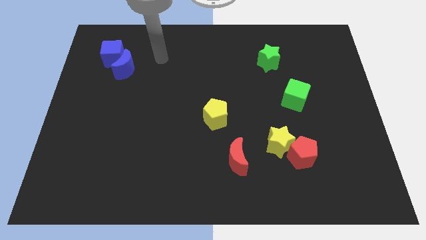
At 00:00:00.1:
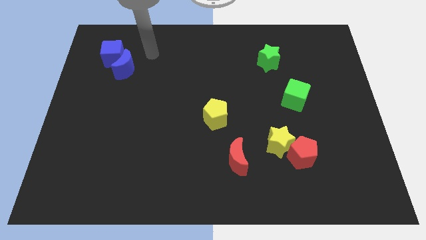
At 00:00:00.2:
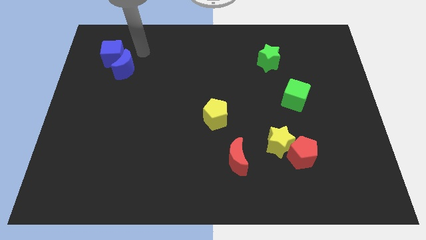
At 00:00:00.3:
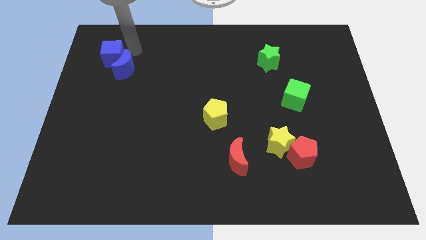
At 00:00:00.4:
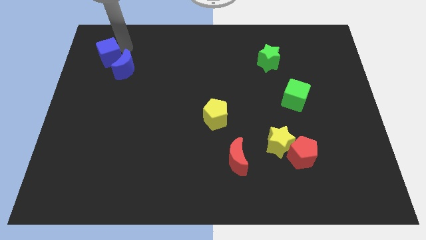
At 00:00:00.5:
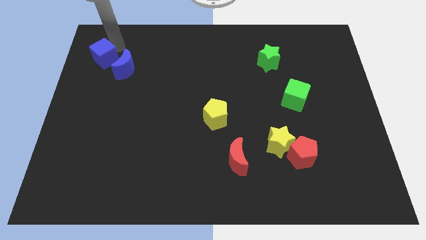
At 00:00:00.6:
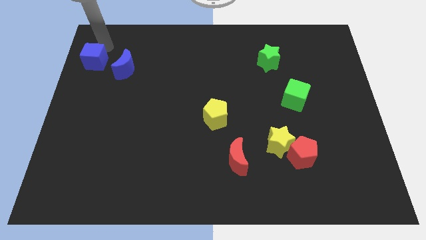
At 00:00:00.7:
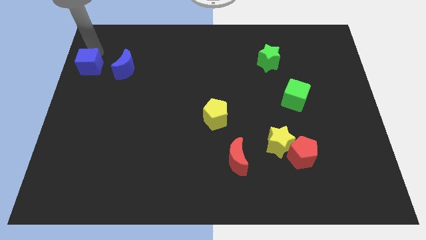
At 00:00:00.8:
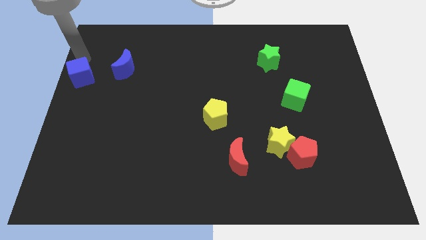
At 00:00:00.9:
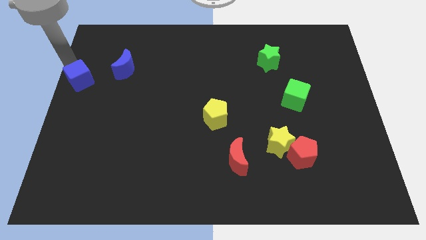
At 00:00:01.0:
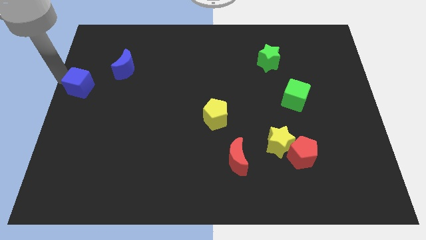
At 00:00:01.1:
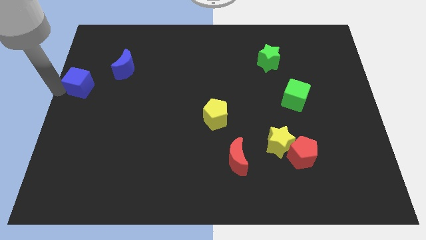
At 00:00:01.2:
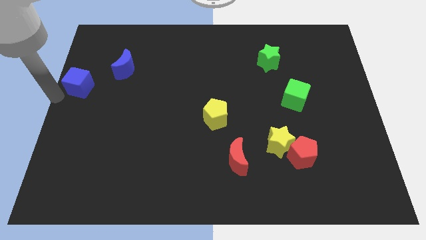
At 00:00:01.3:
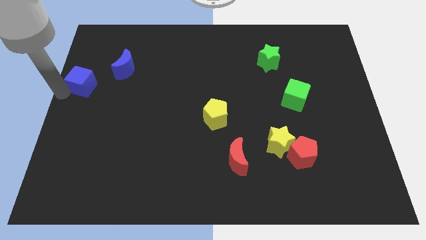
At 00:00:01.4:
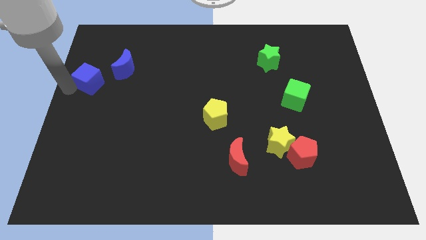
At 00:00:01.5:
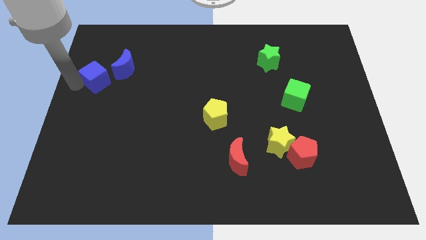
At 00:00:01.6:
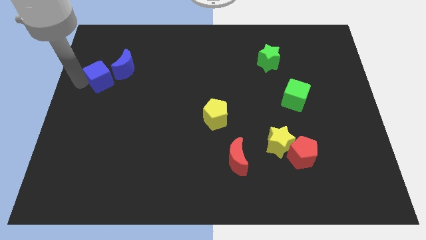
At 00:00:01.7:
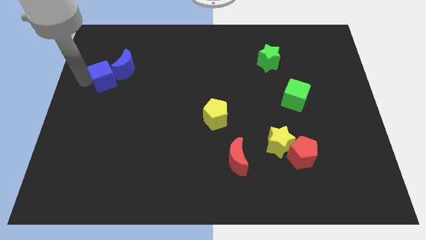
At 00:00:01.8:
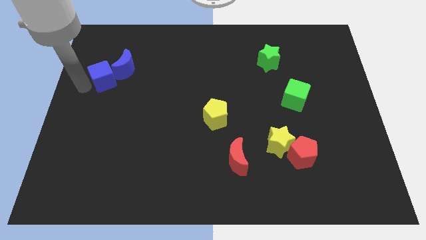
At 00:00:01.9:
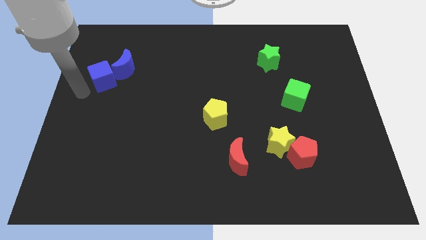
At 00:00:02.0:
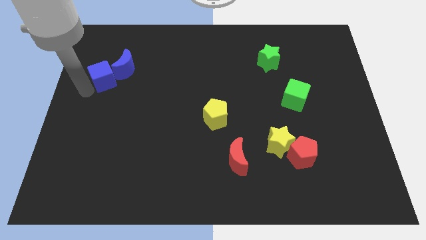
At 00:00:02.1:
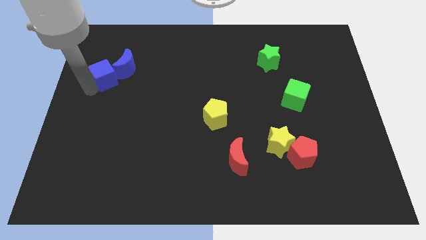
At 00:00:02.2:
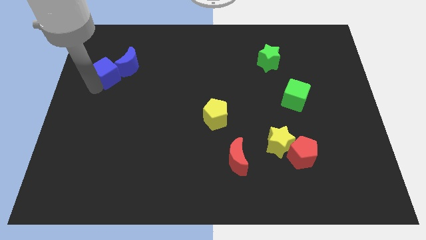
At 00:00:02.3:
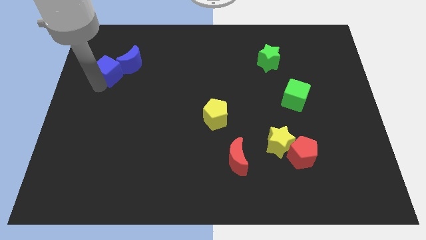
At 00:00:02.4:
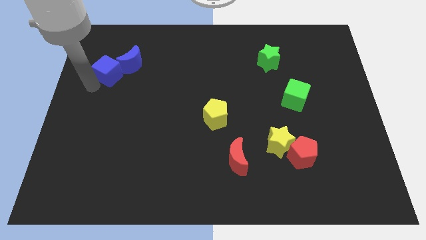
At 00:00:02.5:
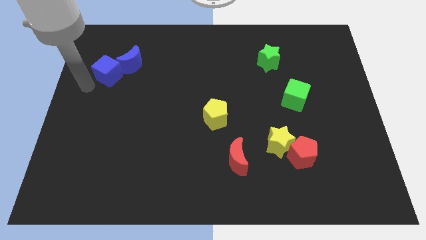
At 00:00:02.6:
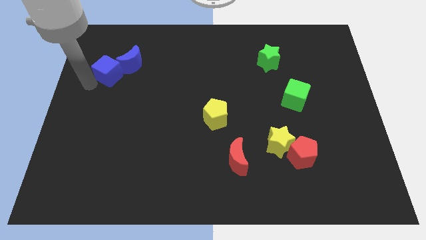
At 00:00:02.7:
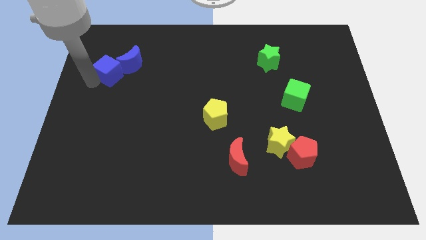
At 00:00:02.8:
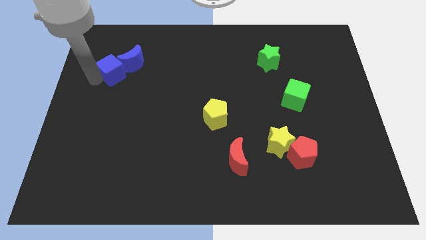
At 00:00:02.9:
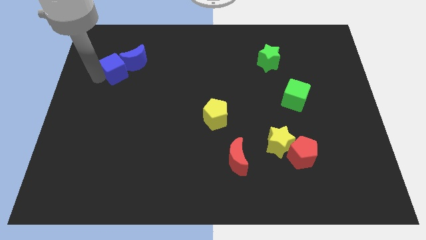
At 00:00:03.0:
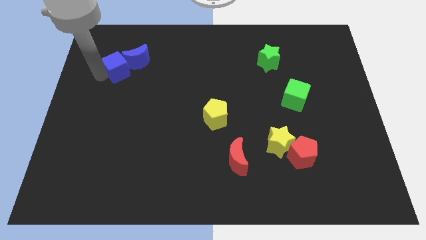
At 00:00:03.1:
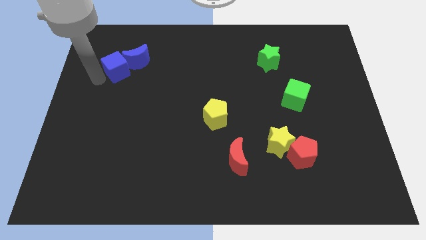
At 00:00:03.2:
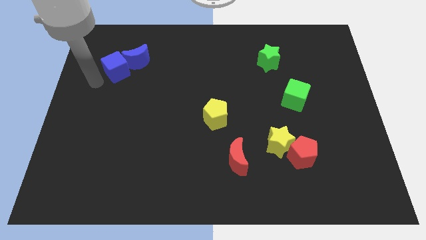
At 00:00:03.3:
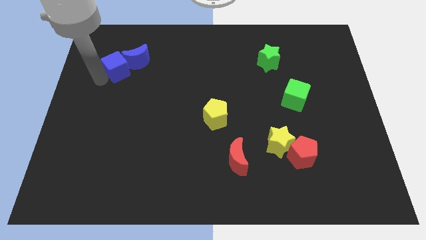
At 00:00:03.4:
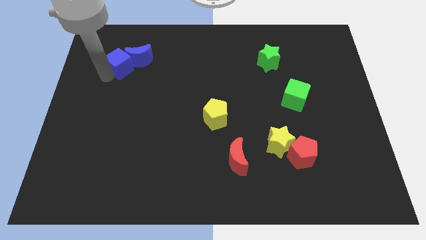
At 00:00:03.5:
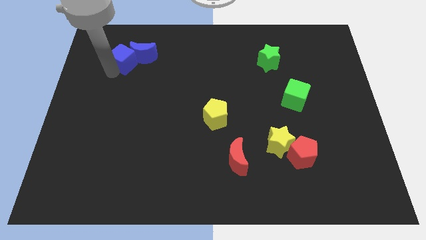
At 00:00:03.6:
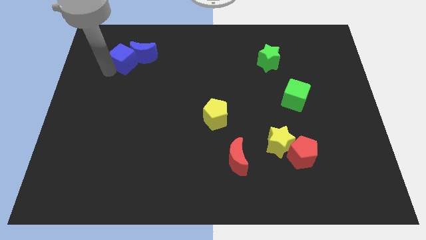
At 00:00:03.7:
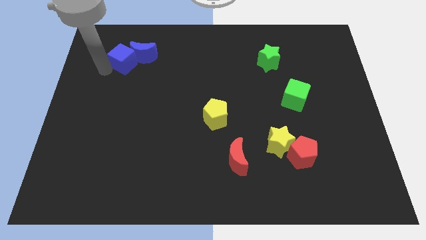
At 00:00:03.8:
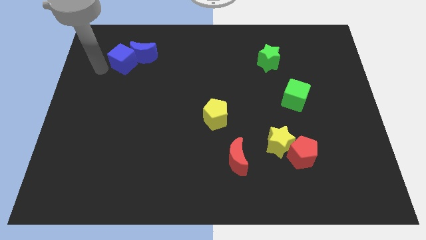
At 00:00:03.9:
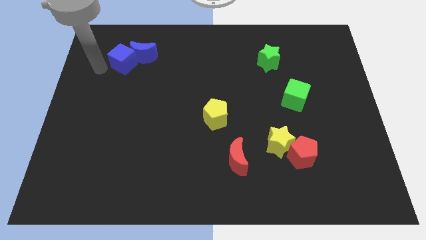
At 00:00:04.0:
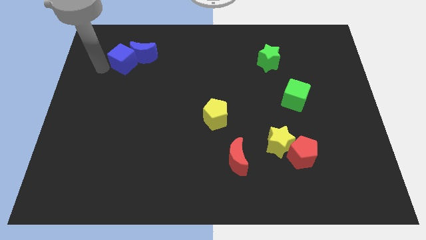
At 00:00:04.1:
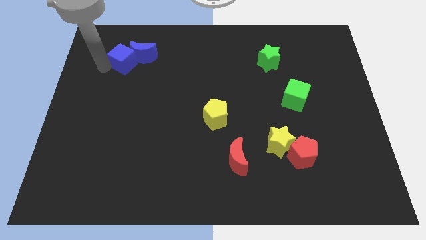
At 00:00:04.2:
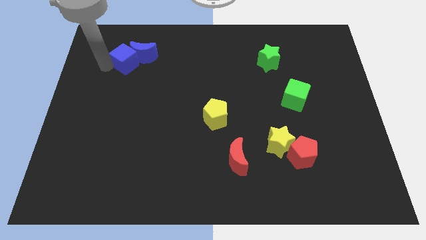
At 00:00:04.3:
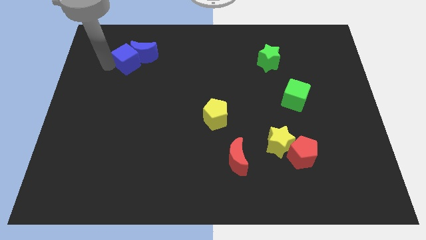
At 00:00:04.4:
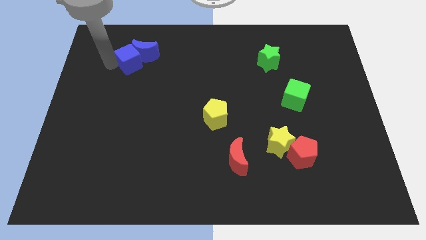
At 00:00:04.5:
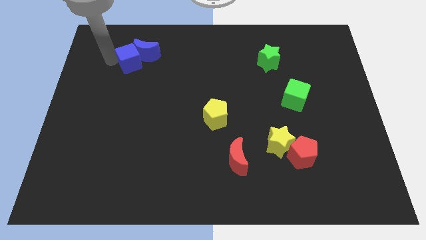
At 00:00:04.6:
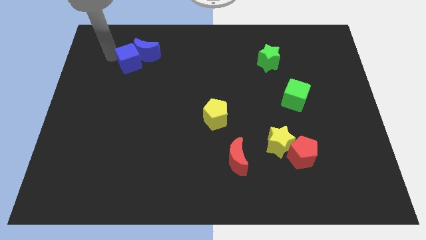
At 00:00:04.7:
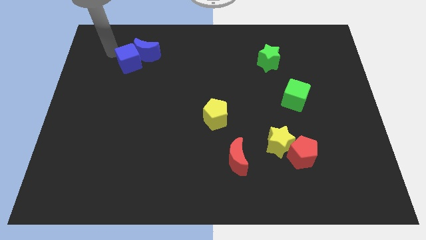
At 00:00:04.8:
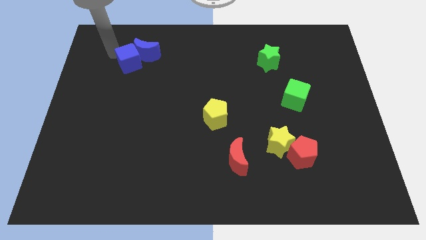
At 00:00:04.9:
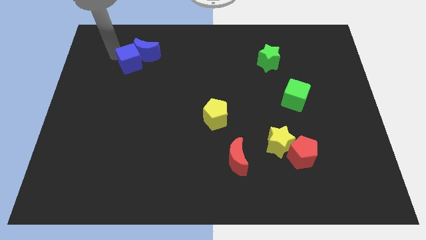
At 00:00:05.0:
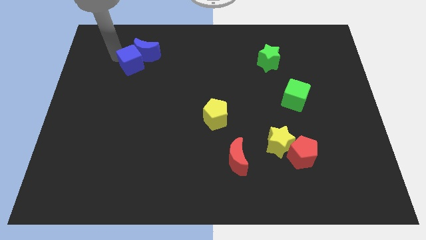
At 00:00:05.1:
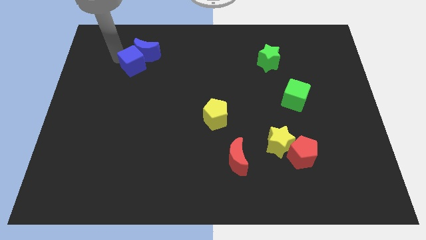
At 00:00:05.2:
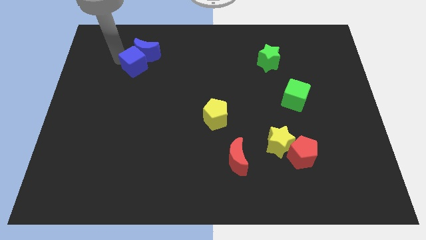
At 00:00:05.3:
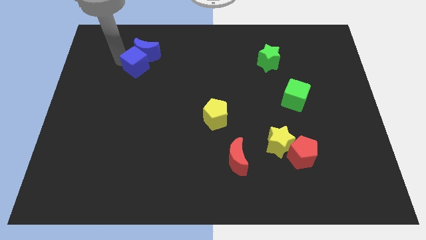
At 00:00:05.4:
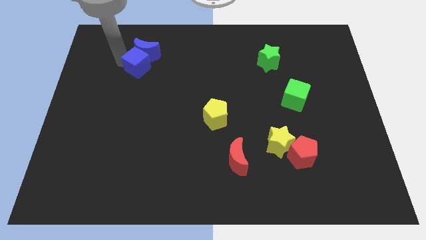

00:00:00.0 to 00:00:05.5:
slightly slide the blue cube downwards and then to the right

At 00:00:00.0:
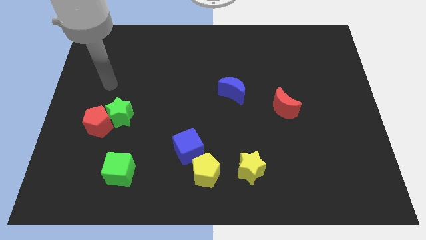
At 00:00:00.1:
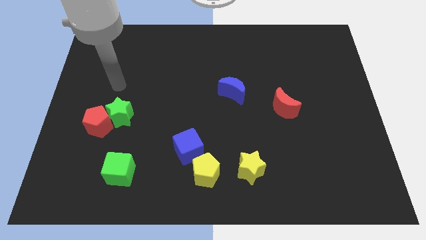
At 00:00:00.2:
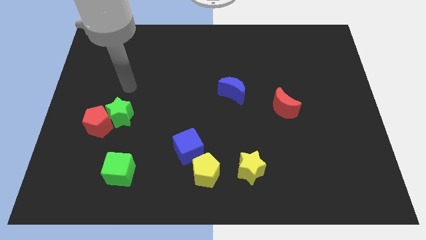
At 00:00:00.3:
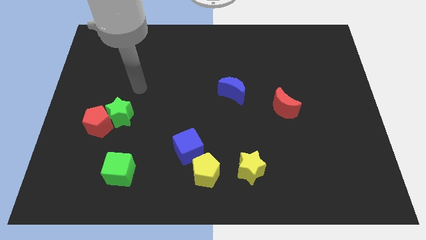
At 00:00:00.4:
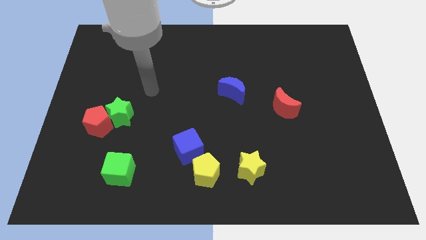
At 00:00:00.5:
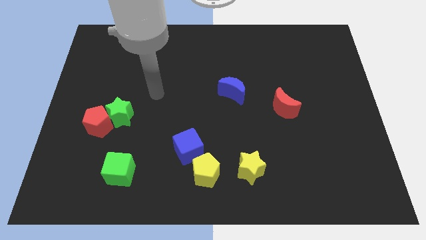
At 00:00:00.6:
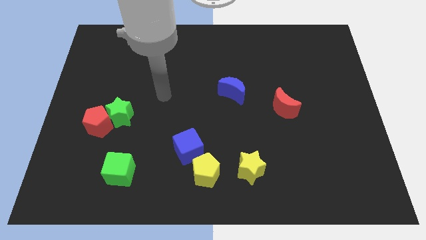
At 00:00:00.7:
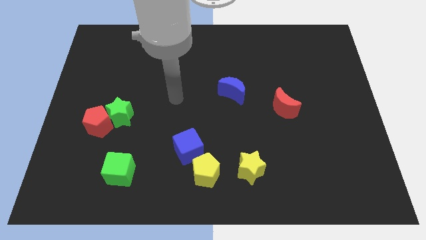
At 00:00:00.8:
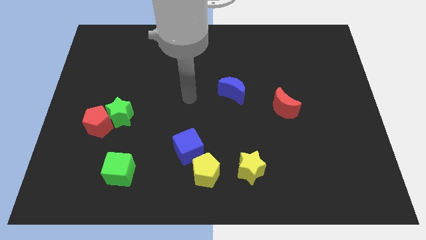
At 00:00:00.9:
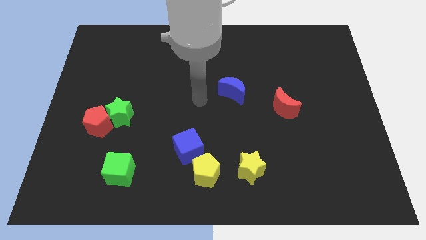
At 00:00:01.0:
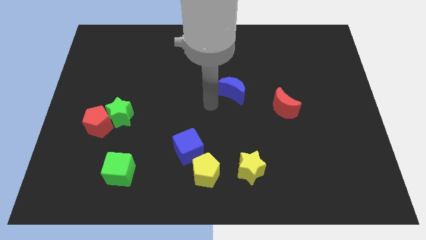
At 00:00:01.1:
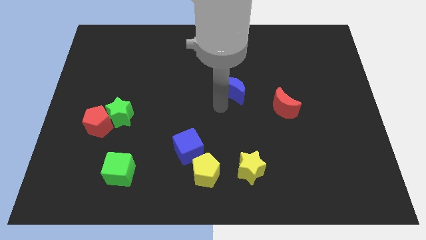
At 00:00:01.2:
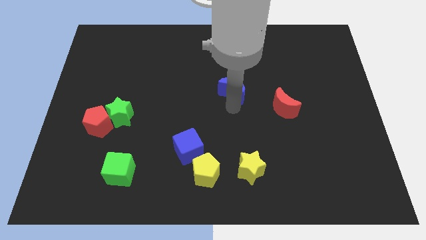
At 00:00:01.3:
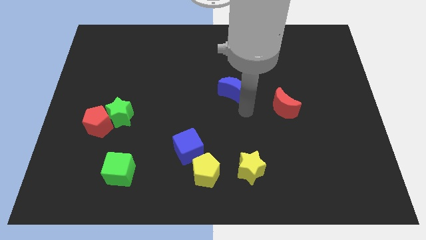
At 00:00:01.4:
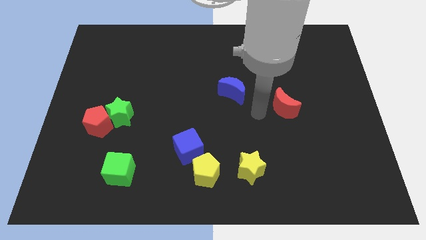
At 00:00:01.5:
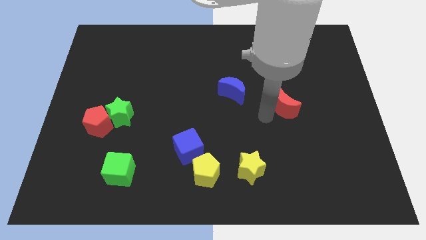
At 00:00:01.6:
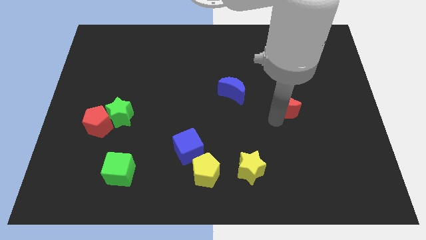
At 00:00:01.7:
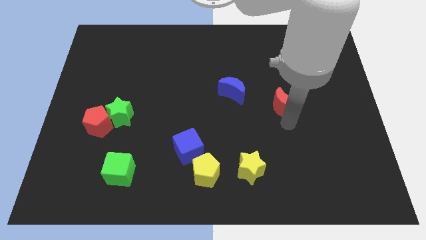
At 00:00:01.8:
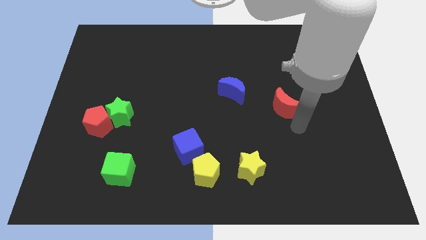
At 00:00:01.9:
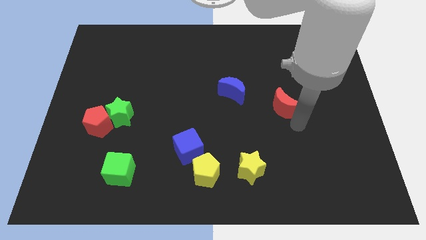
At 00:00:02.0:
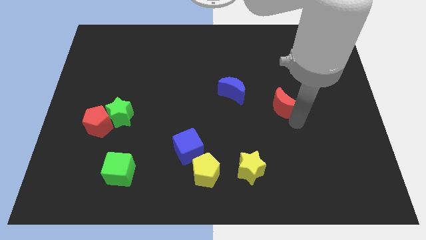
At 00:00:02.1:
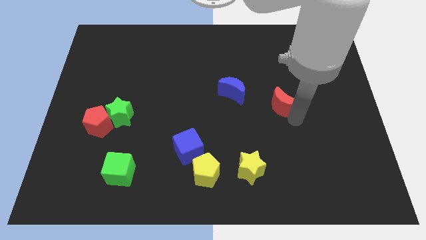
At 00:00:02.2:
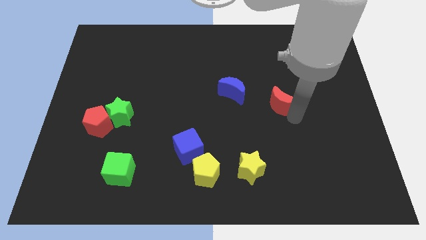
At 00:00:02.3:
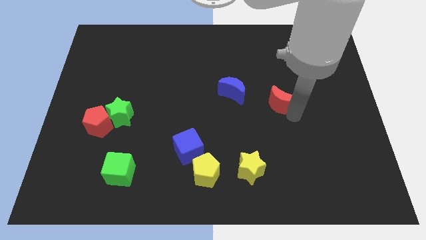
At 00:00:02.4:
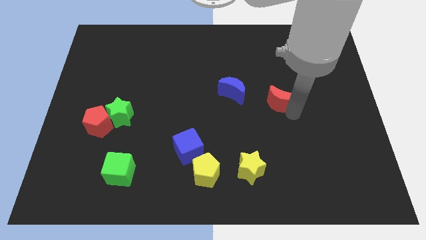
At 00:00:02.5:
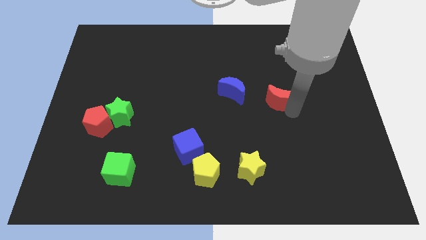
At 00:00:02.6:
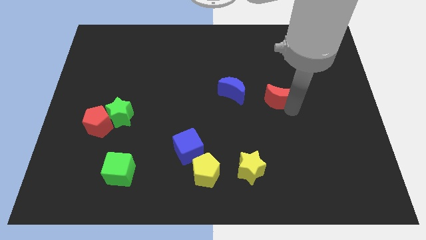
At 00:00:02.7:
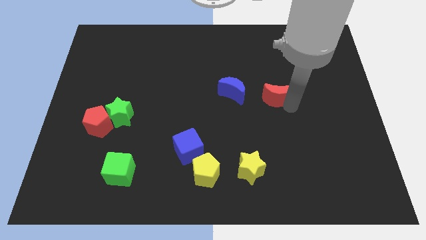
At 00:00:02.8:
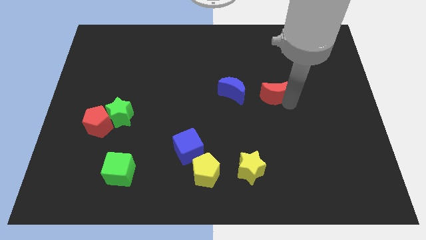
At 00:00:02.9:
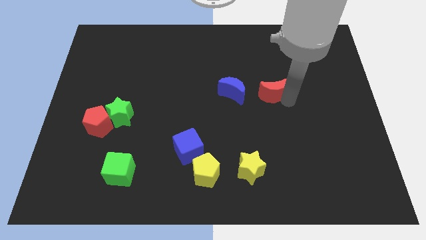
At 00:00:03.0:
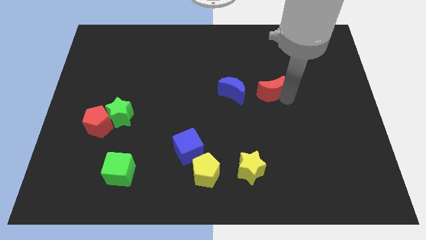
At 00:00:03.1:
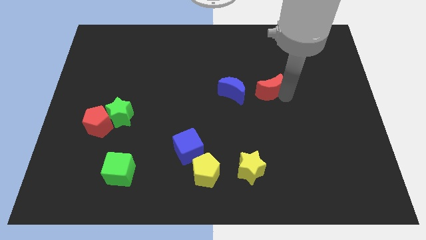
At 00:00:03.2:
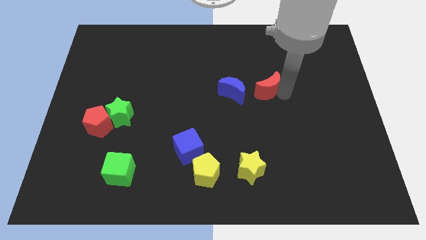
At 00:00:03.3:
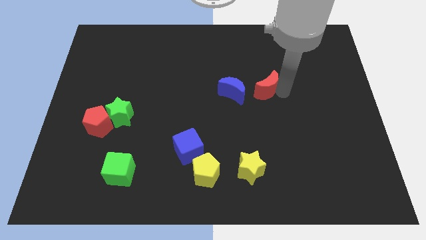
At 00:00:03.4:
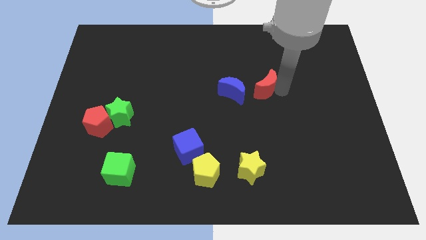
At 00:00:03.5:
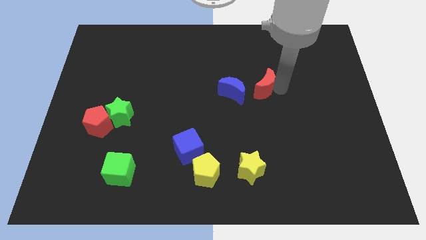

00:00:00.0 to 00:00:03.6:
slightly move the red moon diagonally up and to the left
